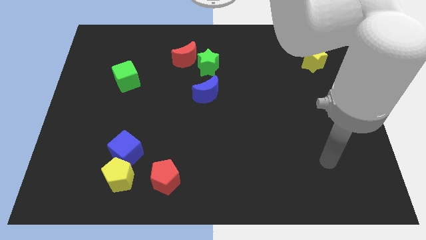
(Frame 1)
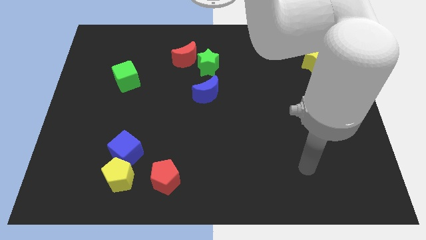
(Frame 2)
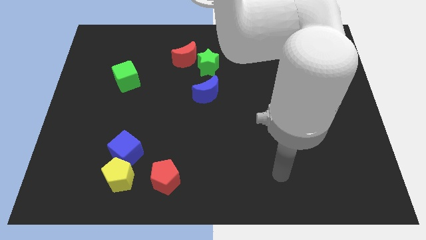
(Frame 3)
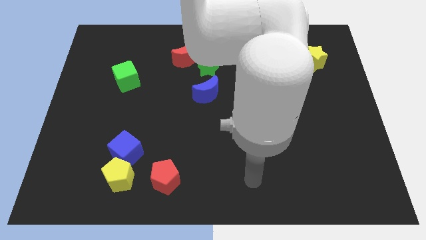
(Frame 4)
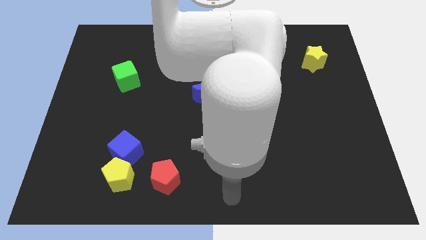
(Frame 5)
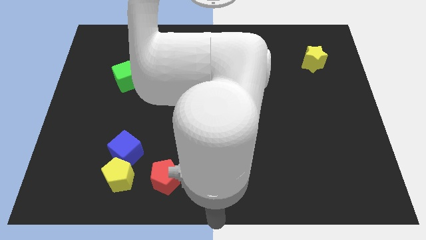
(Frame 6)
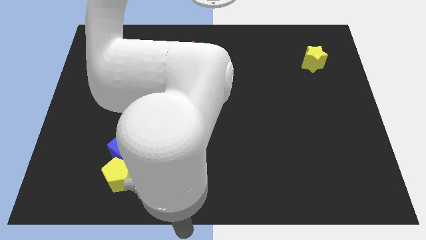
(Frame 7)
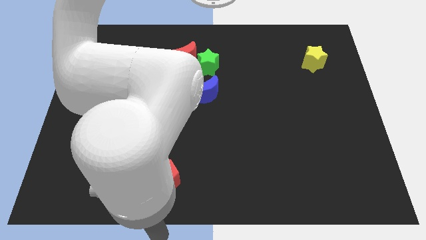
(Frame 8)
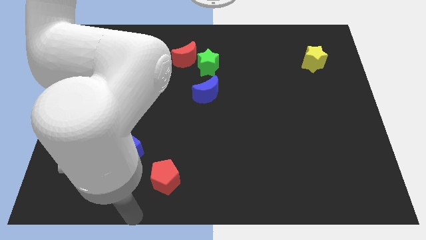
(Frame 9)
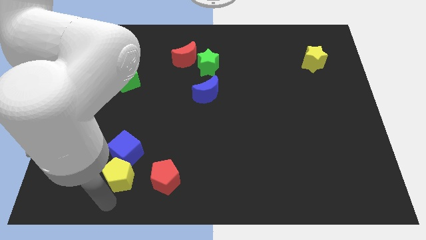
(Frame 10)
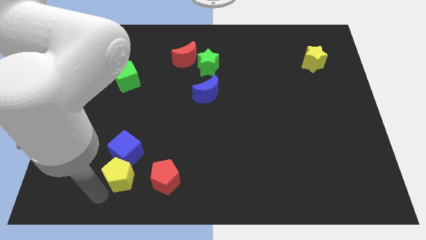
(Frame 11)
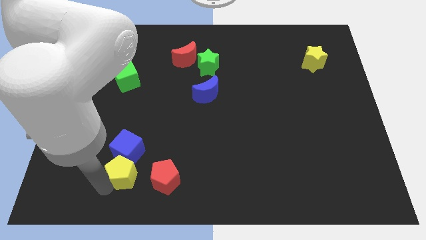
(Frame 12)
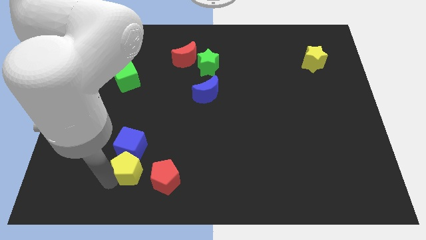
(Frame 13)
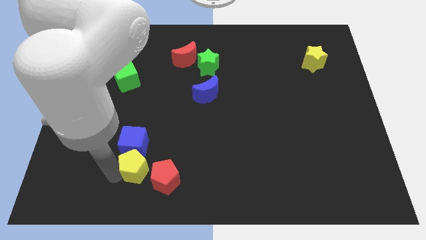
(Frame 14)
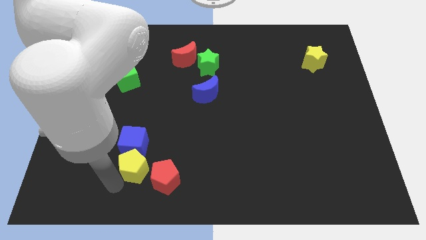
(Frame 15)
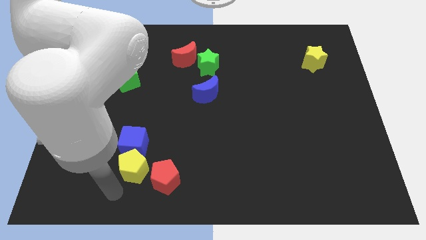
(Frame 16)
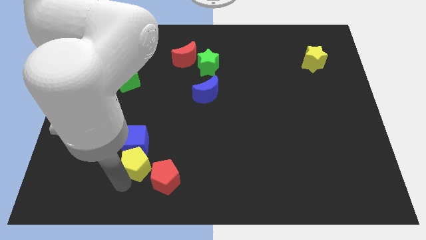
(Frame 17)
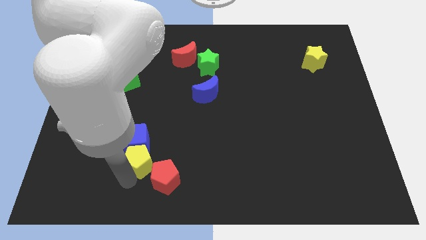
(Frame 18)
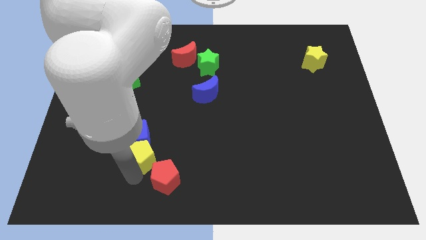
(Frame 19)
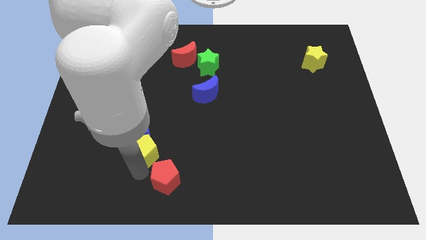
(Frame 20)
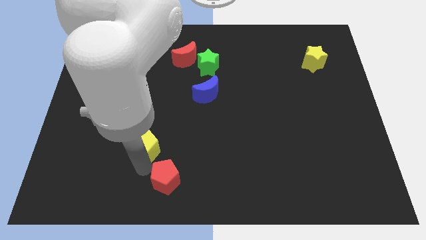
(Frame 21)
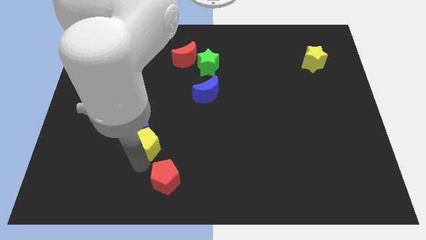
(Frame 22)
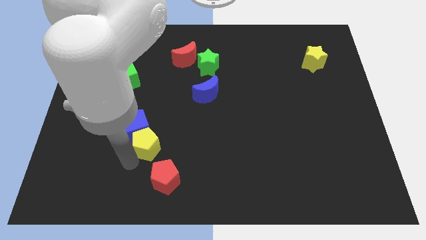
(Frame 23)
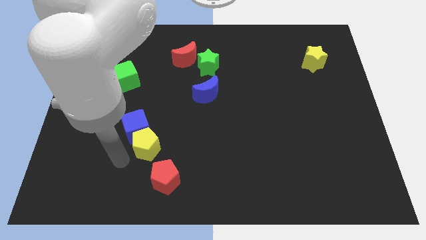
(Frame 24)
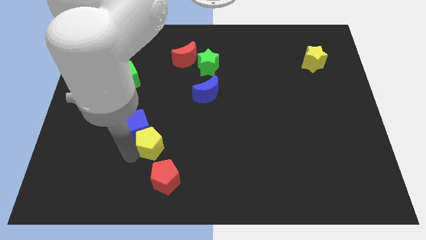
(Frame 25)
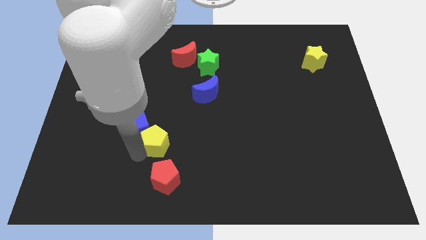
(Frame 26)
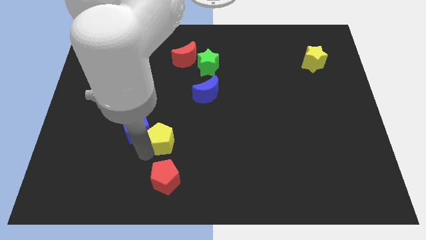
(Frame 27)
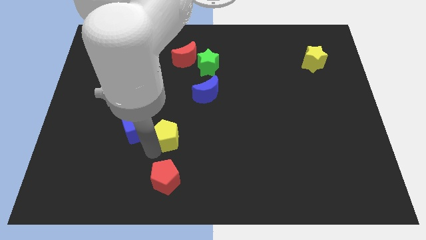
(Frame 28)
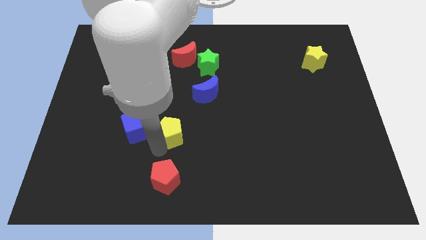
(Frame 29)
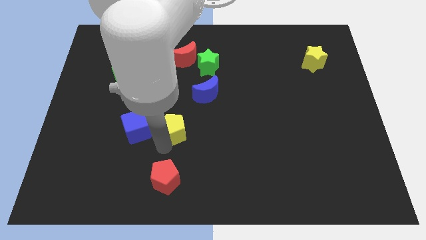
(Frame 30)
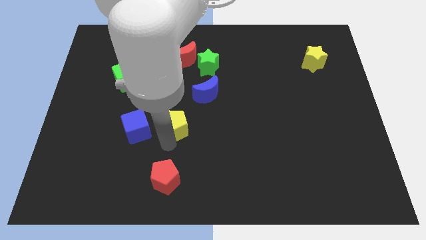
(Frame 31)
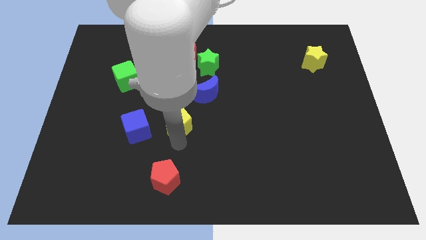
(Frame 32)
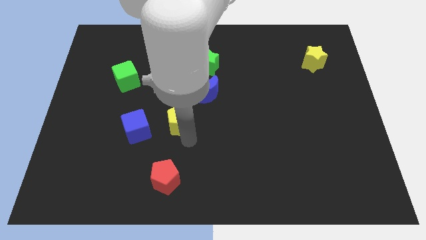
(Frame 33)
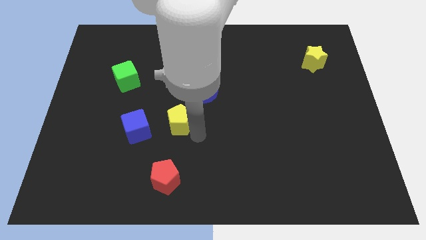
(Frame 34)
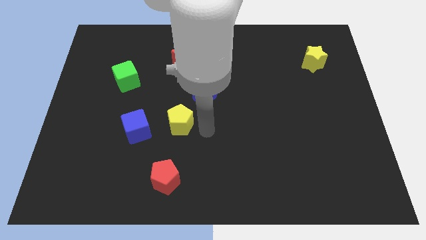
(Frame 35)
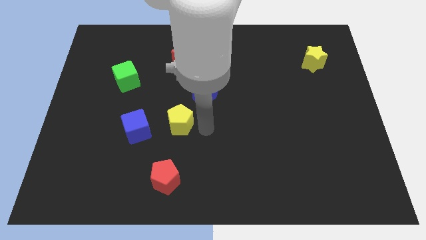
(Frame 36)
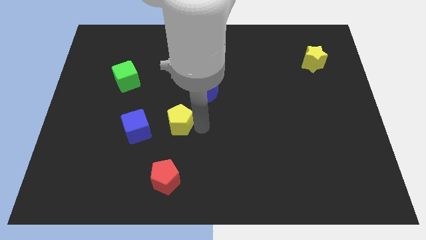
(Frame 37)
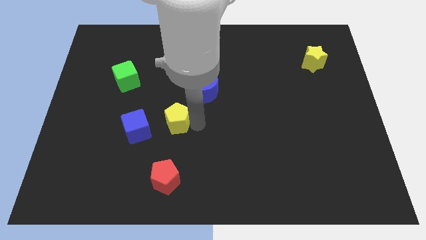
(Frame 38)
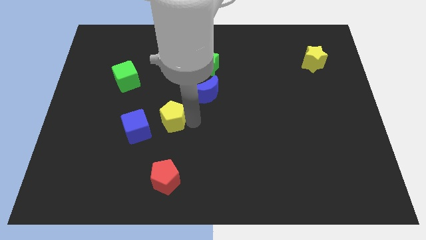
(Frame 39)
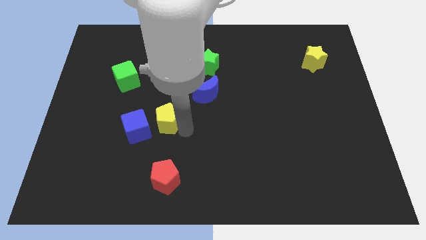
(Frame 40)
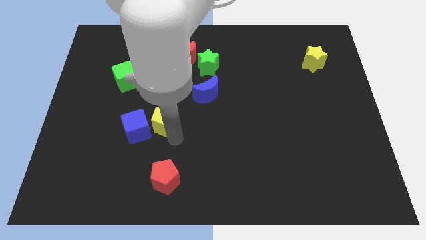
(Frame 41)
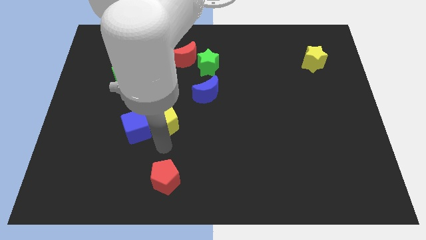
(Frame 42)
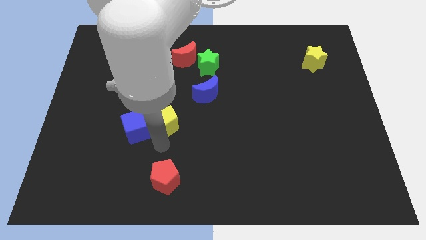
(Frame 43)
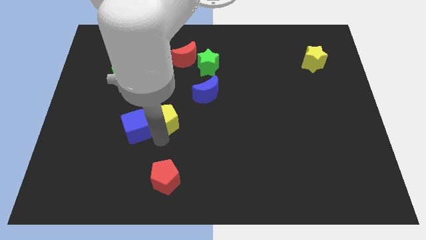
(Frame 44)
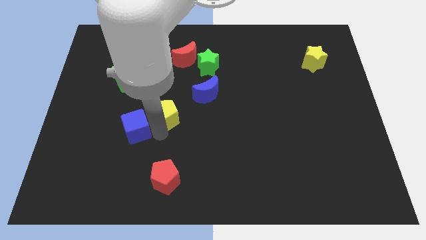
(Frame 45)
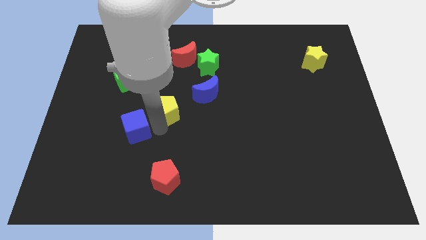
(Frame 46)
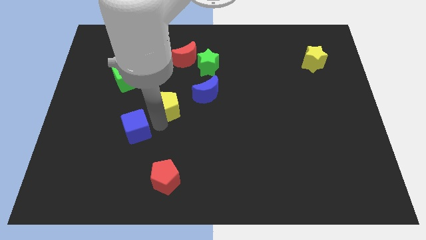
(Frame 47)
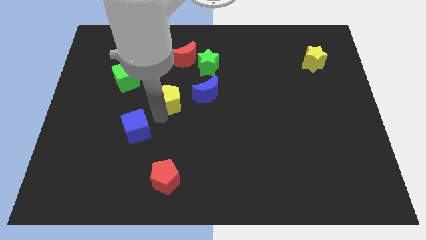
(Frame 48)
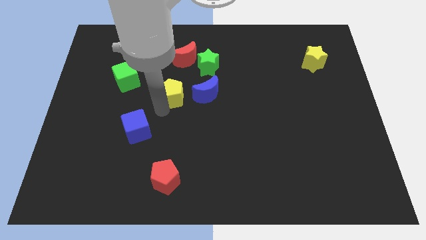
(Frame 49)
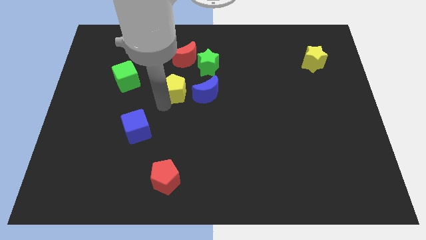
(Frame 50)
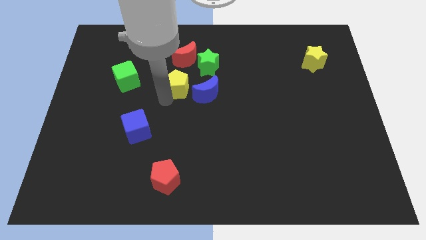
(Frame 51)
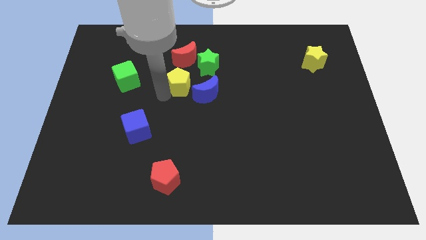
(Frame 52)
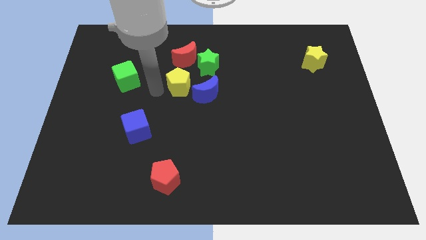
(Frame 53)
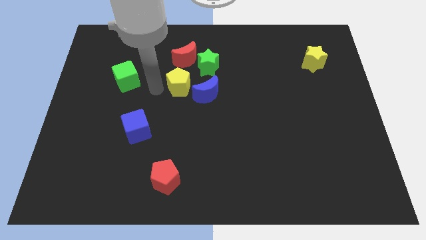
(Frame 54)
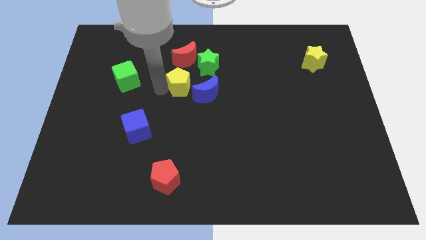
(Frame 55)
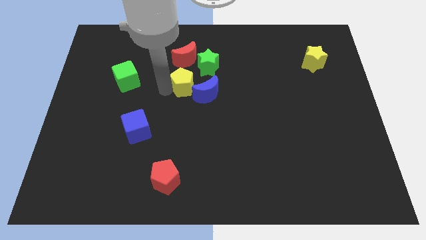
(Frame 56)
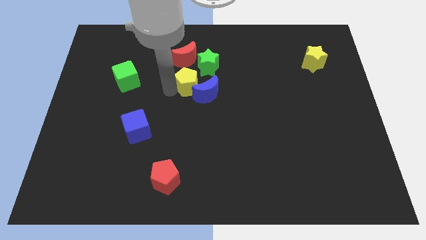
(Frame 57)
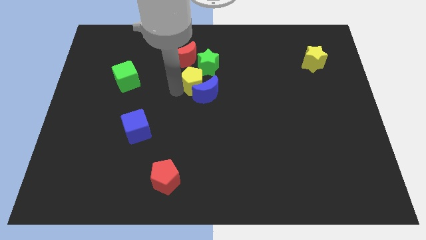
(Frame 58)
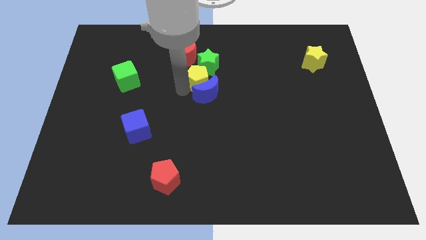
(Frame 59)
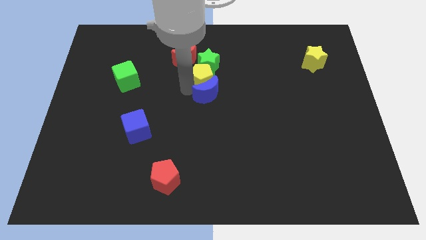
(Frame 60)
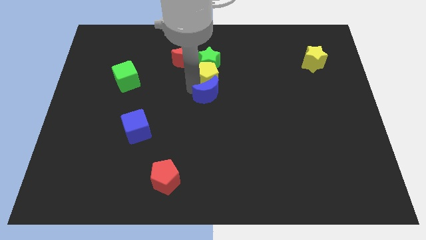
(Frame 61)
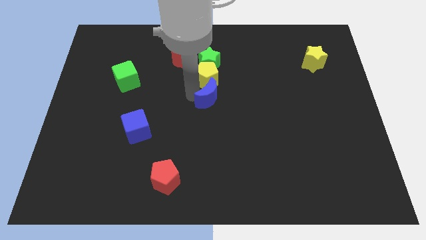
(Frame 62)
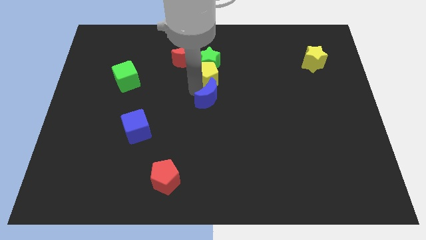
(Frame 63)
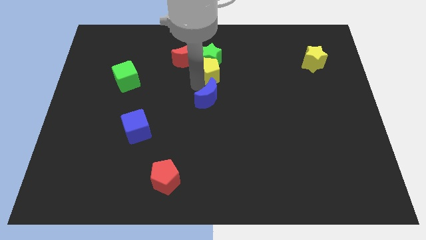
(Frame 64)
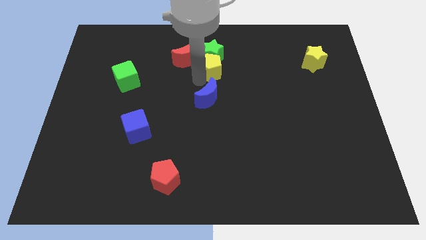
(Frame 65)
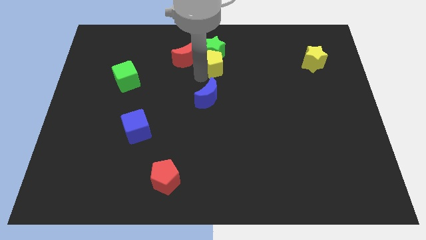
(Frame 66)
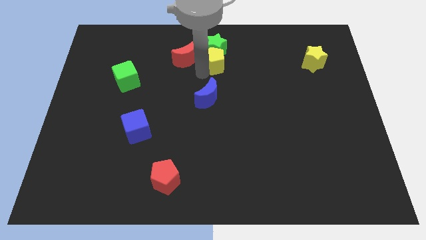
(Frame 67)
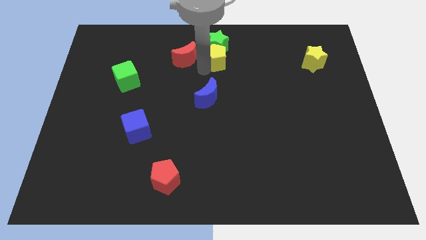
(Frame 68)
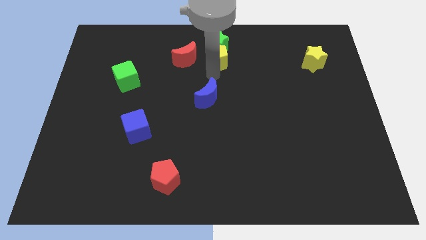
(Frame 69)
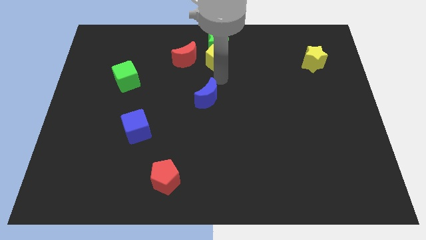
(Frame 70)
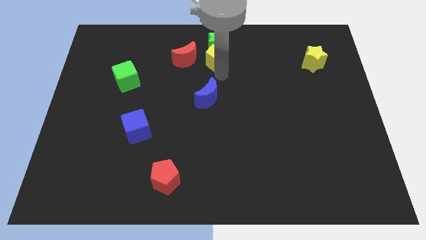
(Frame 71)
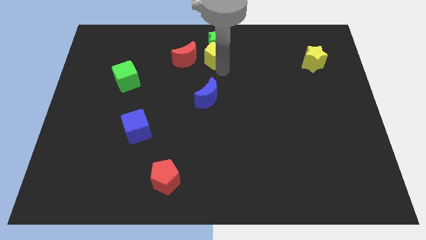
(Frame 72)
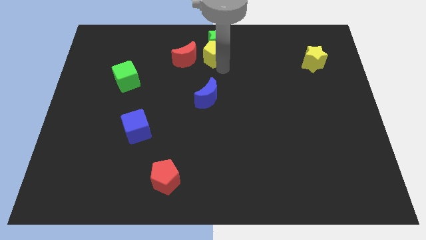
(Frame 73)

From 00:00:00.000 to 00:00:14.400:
move the yellow pentagon to the towards your base

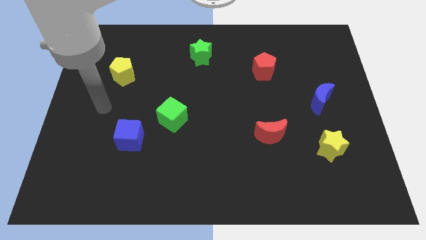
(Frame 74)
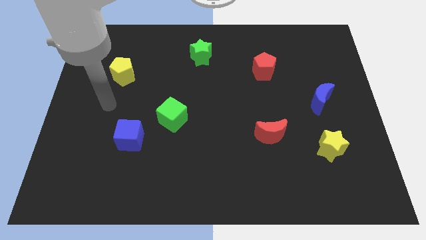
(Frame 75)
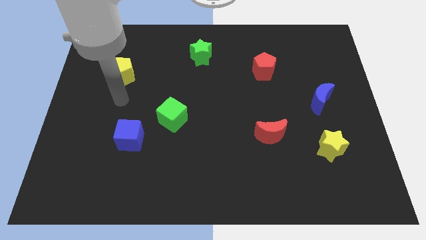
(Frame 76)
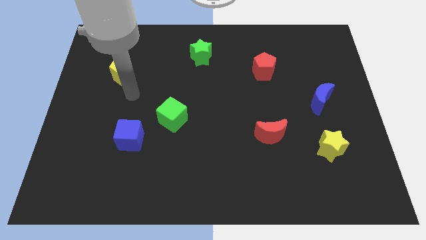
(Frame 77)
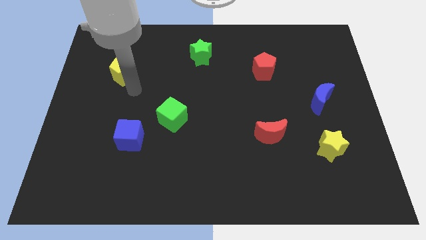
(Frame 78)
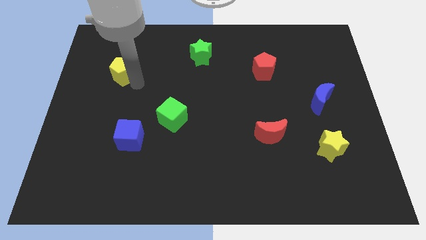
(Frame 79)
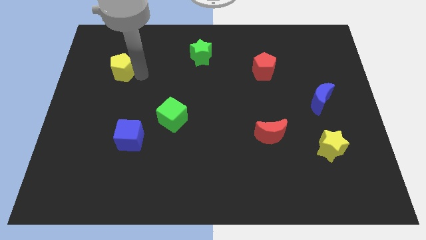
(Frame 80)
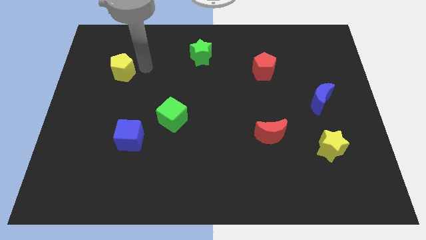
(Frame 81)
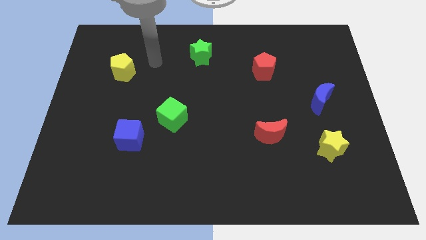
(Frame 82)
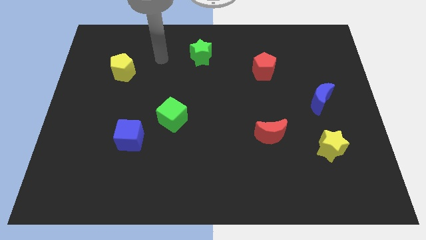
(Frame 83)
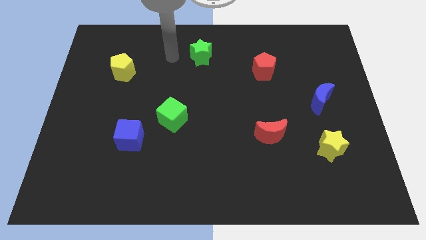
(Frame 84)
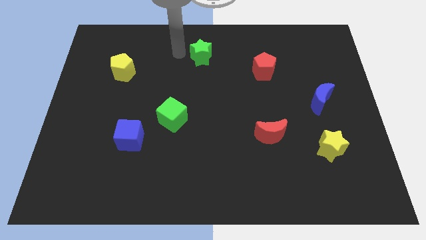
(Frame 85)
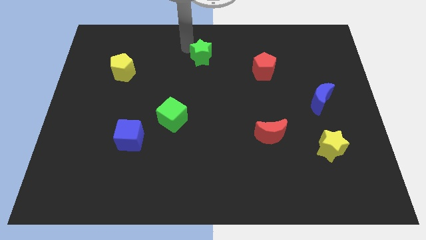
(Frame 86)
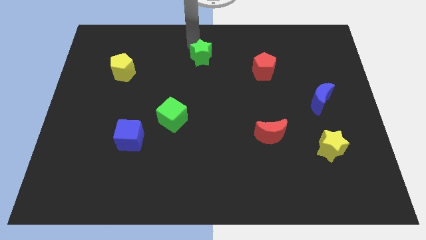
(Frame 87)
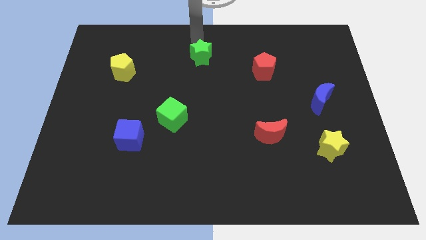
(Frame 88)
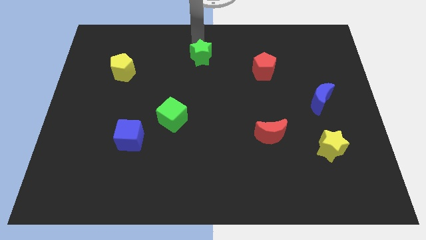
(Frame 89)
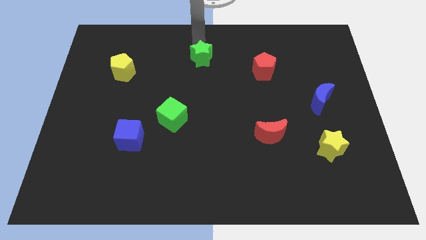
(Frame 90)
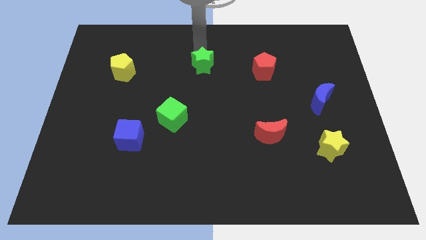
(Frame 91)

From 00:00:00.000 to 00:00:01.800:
move the green star to the center of the board
